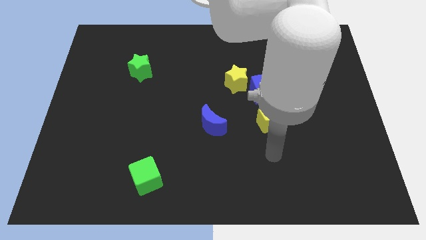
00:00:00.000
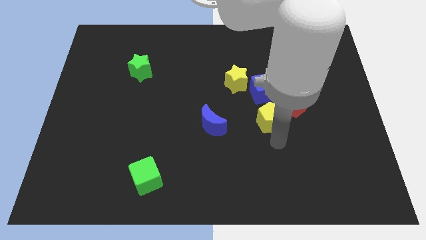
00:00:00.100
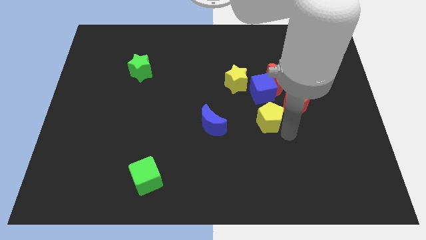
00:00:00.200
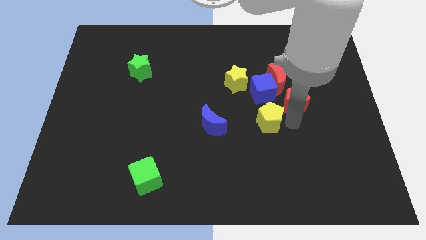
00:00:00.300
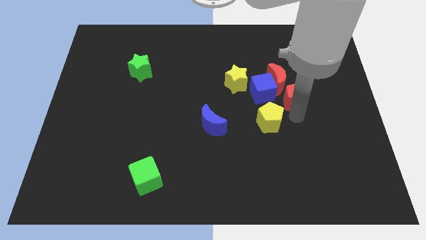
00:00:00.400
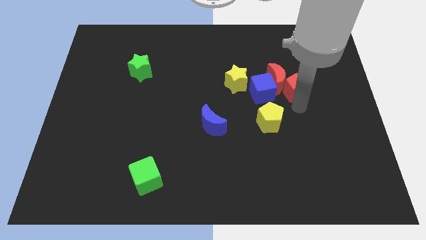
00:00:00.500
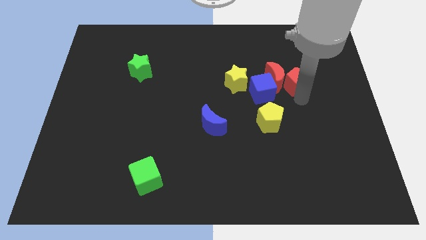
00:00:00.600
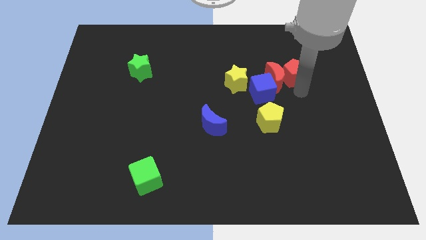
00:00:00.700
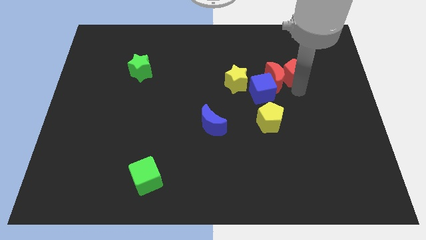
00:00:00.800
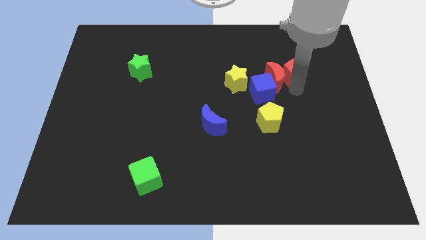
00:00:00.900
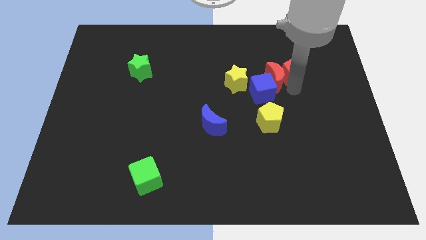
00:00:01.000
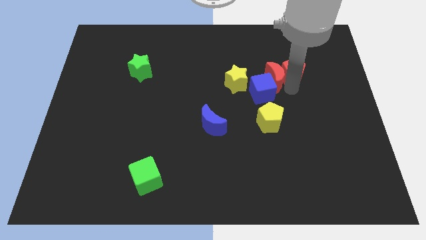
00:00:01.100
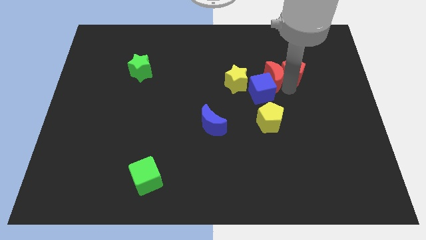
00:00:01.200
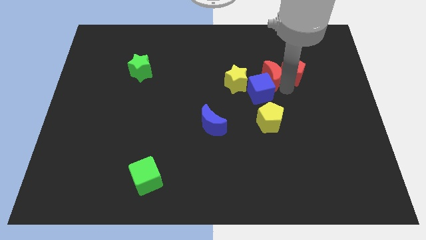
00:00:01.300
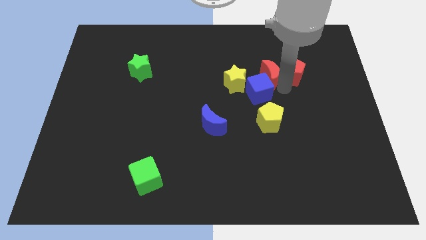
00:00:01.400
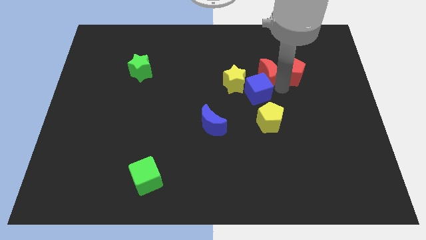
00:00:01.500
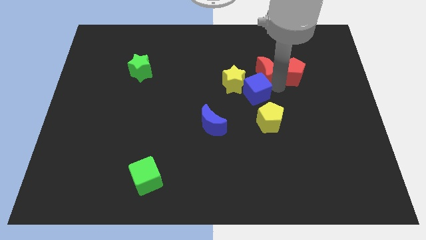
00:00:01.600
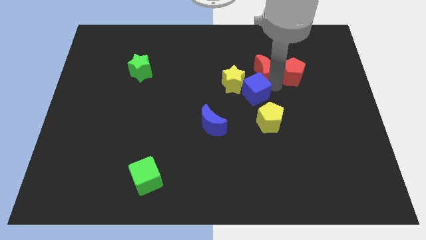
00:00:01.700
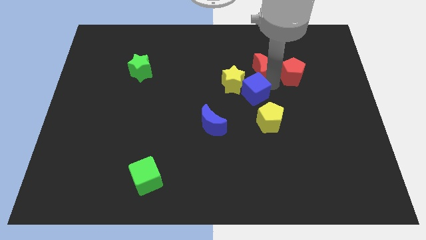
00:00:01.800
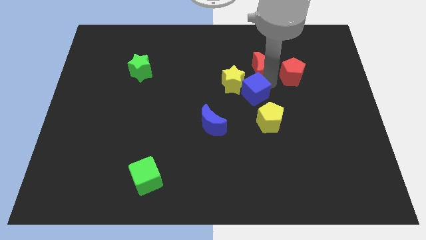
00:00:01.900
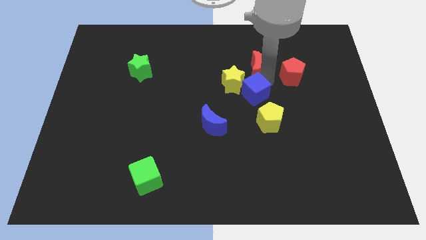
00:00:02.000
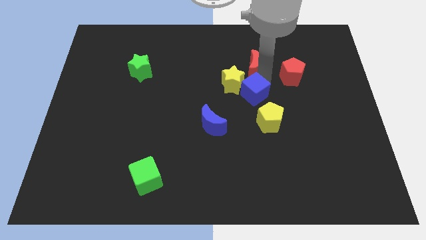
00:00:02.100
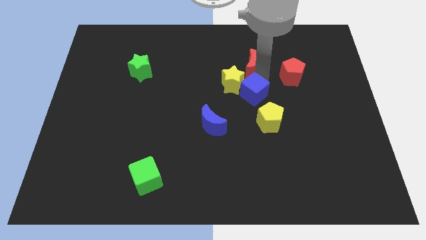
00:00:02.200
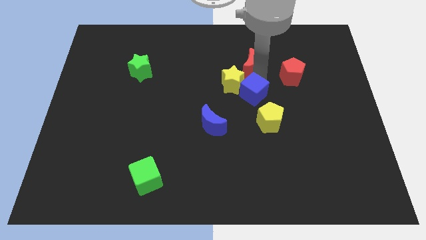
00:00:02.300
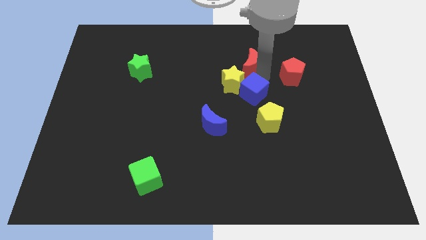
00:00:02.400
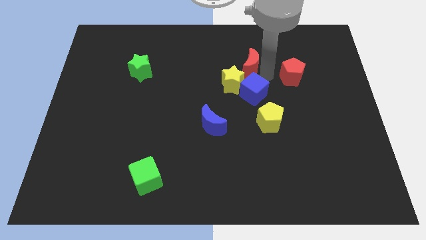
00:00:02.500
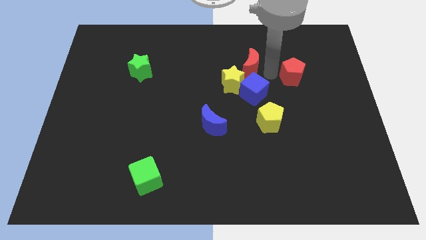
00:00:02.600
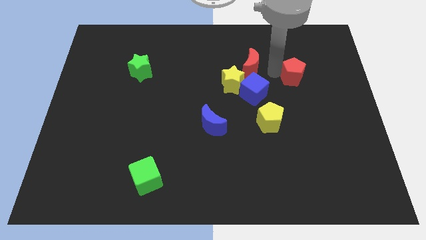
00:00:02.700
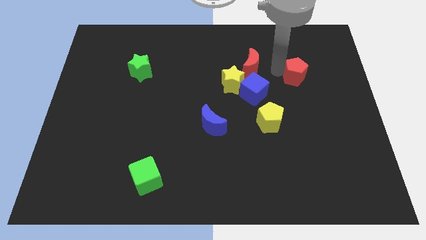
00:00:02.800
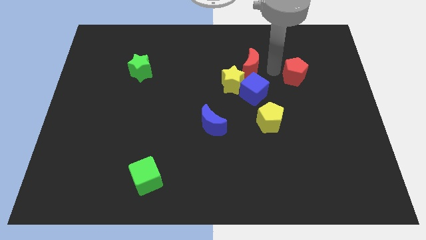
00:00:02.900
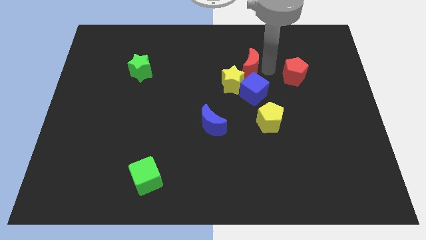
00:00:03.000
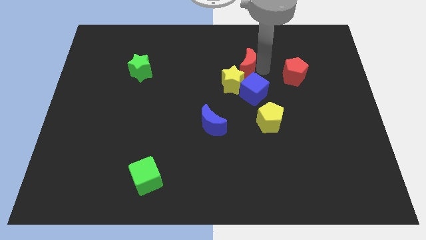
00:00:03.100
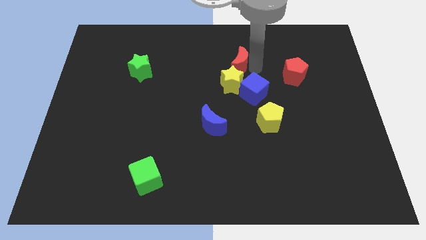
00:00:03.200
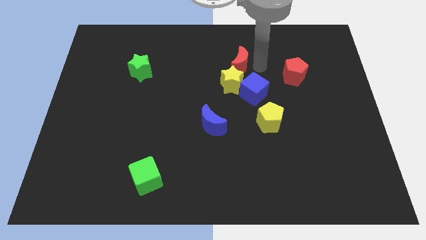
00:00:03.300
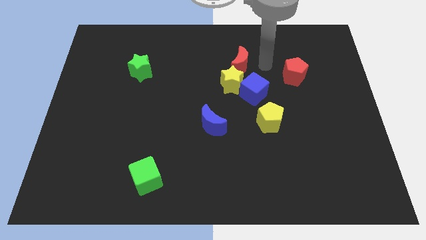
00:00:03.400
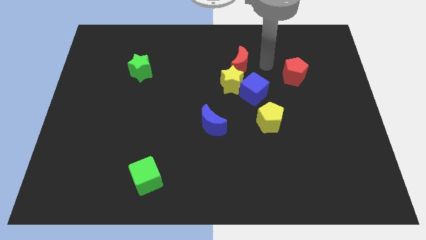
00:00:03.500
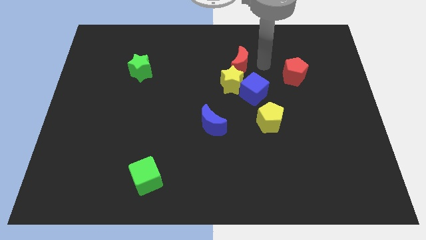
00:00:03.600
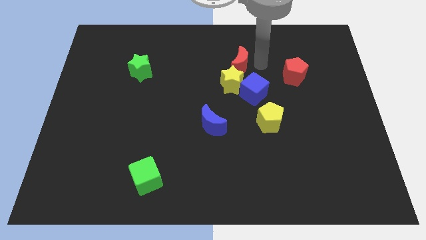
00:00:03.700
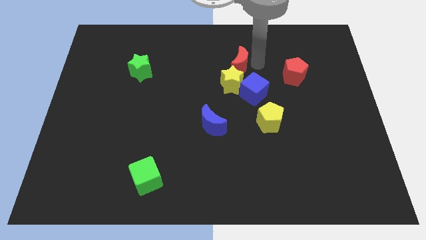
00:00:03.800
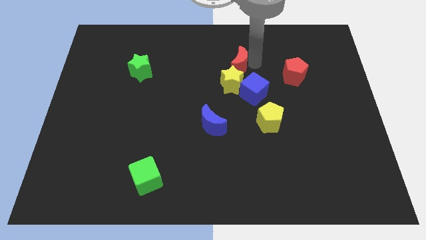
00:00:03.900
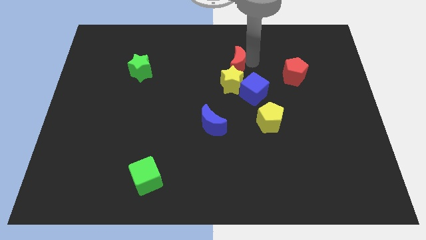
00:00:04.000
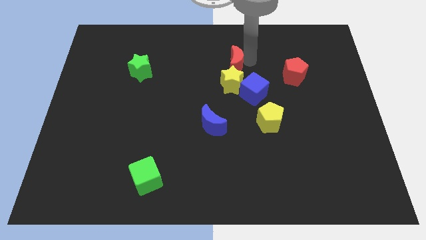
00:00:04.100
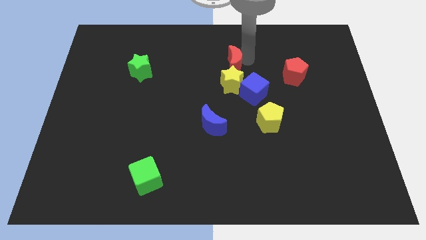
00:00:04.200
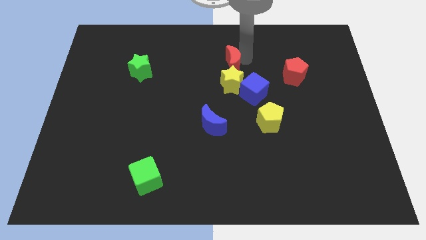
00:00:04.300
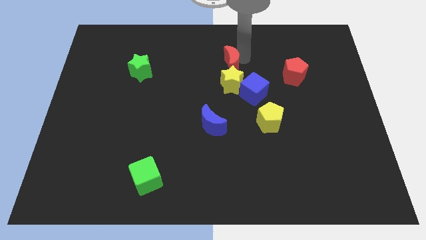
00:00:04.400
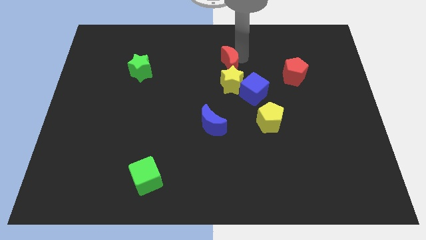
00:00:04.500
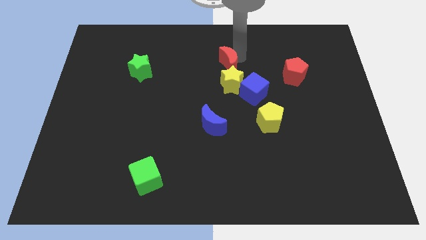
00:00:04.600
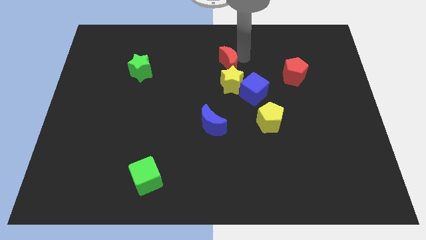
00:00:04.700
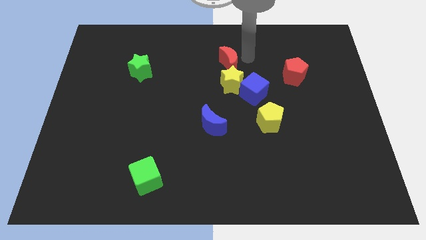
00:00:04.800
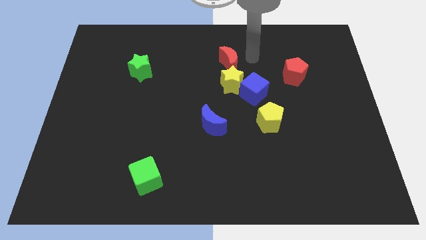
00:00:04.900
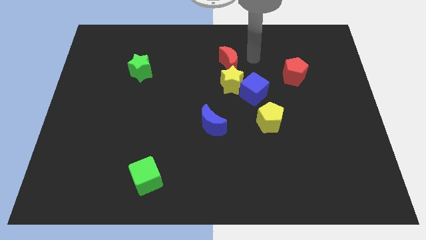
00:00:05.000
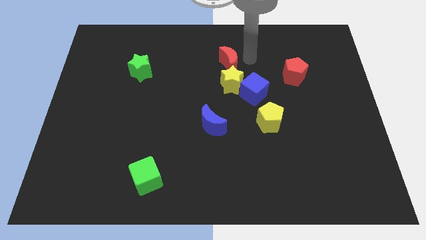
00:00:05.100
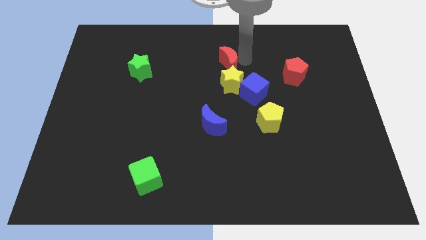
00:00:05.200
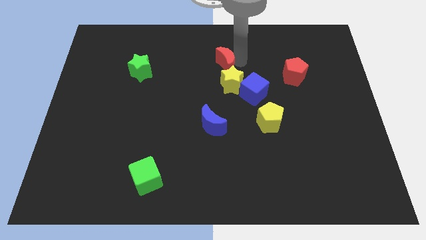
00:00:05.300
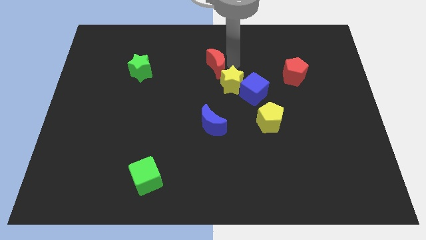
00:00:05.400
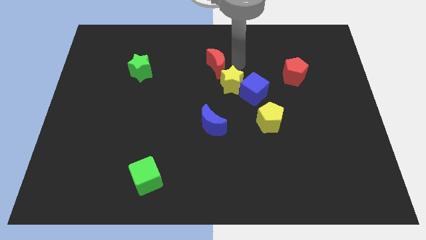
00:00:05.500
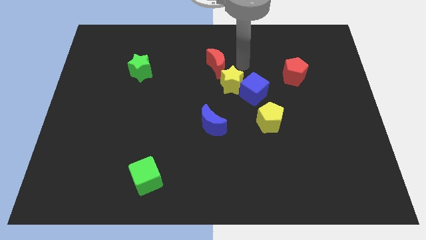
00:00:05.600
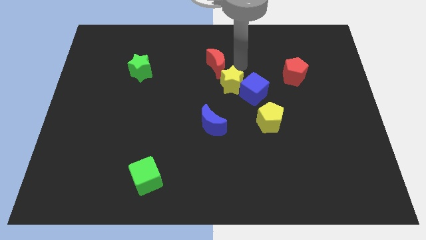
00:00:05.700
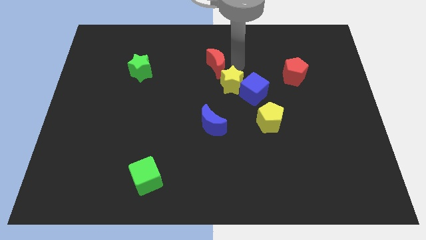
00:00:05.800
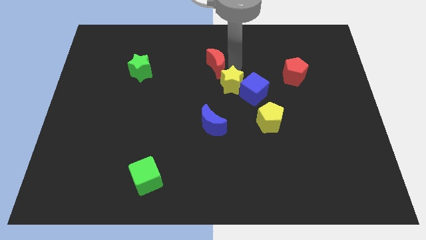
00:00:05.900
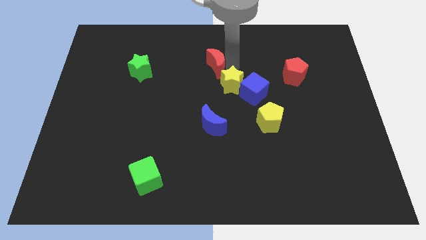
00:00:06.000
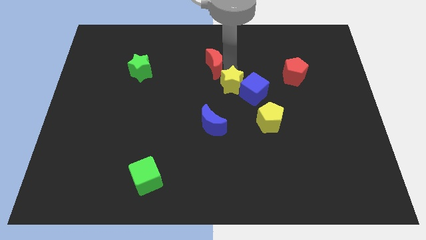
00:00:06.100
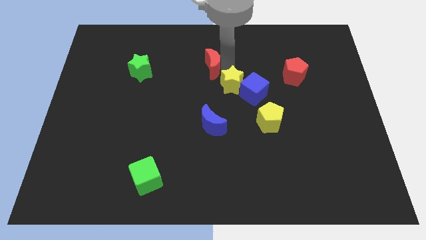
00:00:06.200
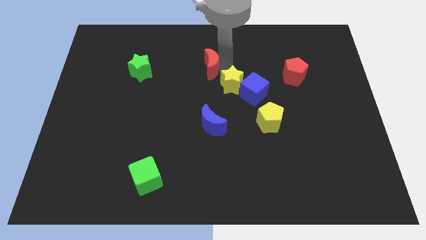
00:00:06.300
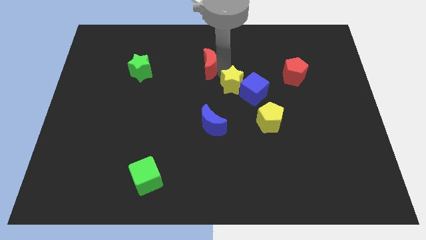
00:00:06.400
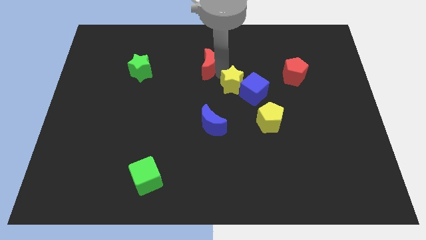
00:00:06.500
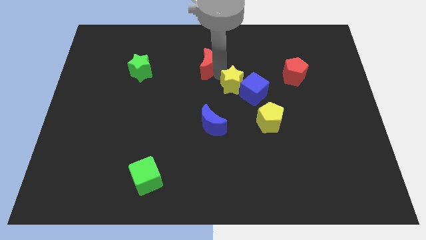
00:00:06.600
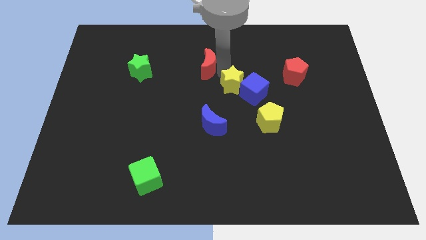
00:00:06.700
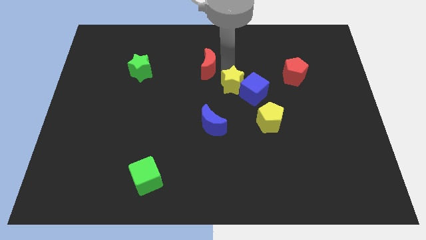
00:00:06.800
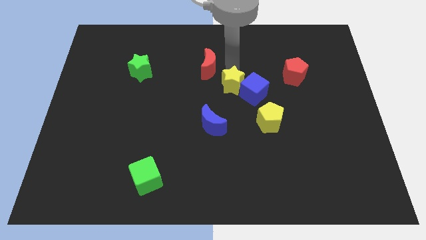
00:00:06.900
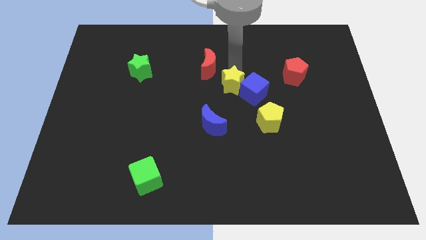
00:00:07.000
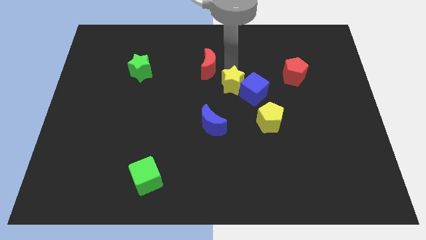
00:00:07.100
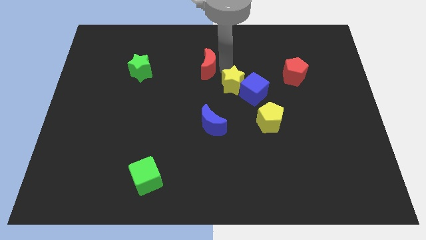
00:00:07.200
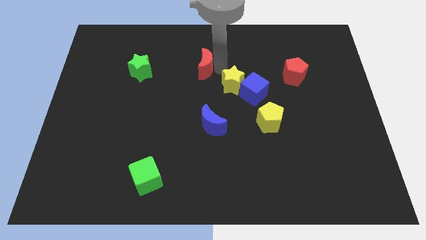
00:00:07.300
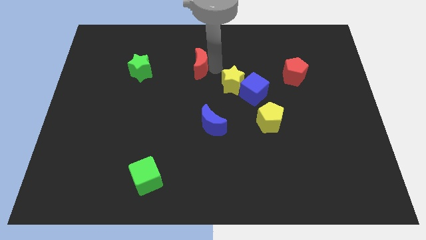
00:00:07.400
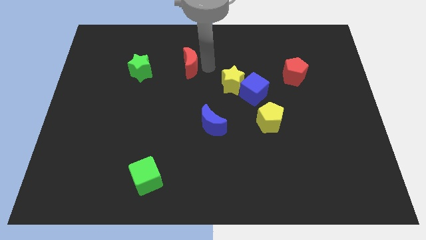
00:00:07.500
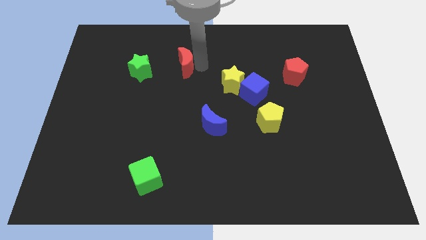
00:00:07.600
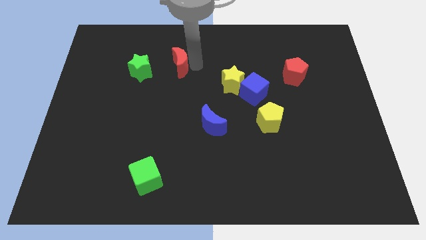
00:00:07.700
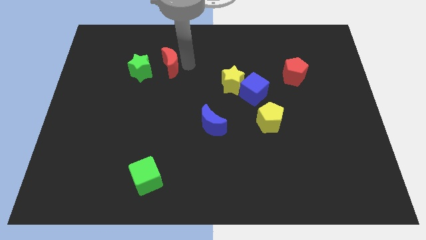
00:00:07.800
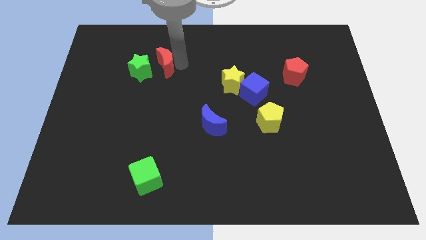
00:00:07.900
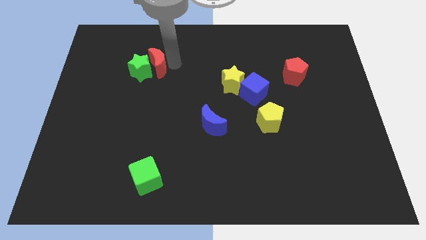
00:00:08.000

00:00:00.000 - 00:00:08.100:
move the red moon next to the green star

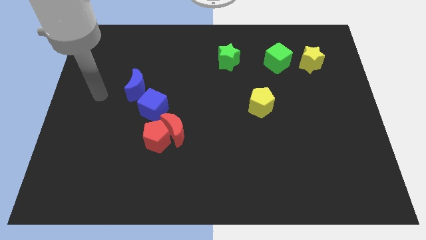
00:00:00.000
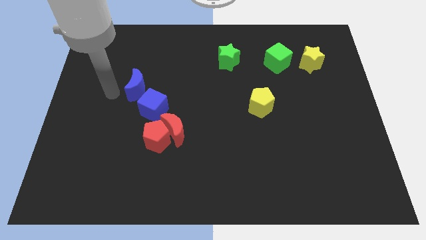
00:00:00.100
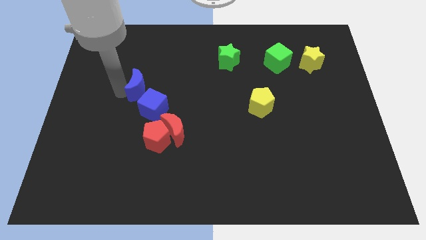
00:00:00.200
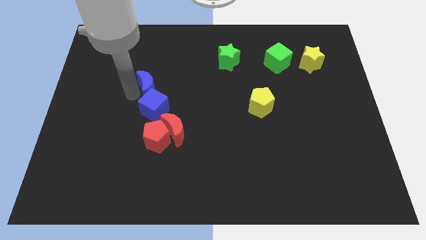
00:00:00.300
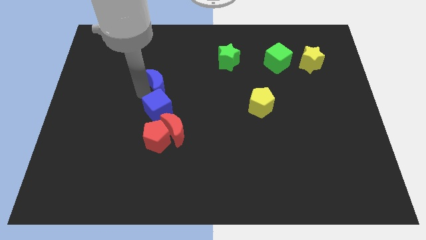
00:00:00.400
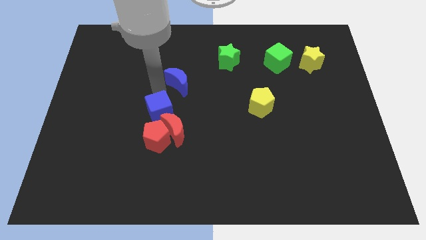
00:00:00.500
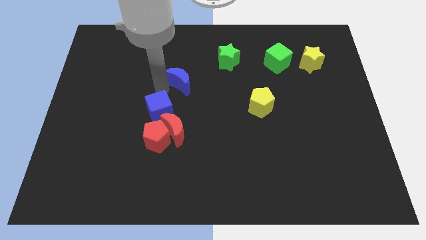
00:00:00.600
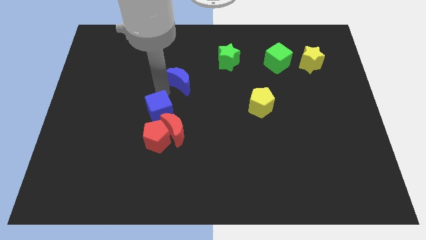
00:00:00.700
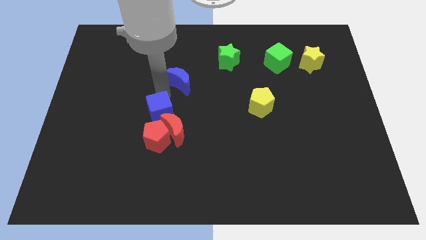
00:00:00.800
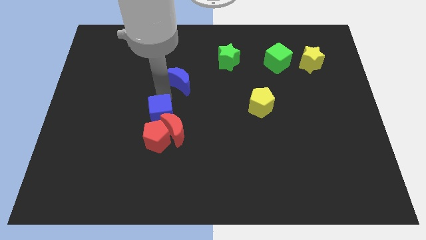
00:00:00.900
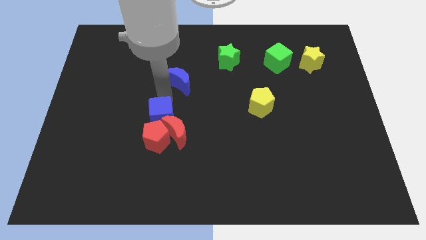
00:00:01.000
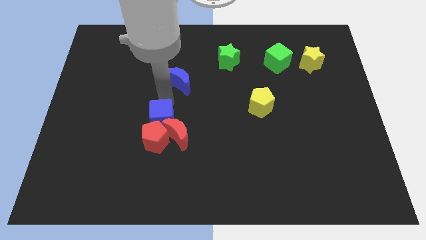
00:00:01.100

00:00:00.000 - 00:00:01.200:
move the blue cube towards the red pentagon
